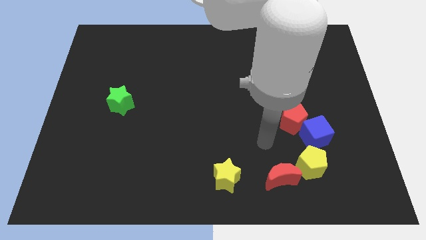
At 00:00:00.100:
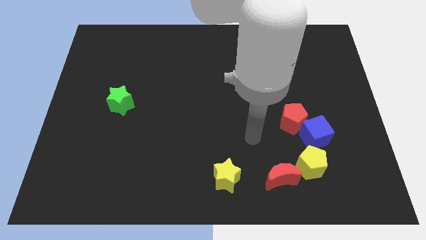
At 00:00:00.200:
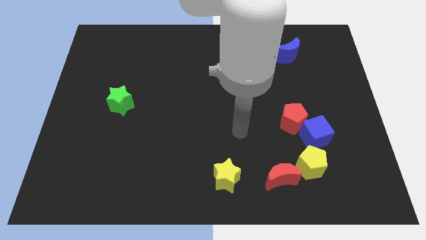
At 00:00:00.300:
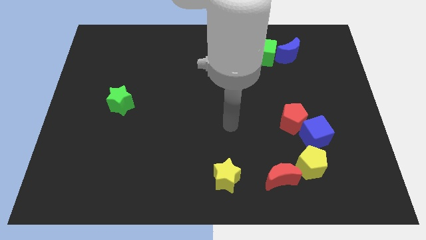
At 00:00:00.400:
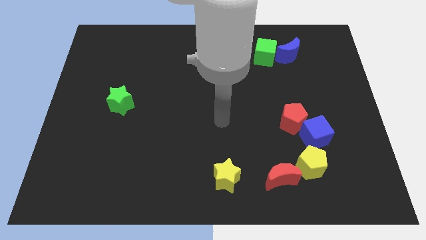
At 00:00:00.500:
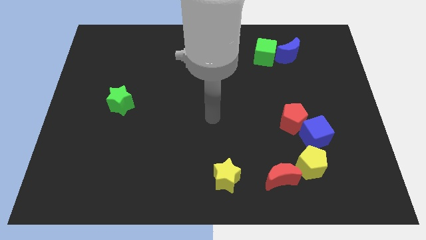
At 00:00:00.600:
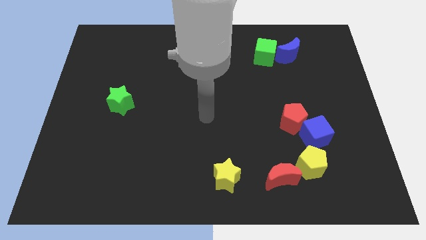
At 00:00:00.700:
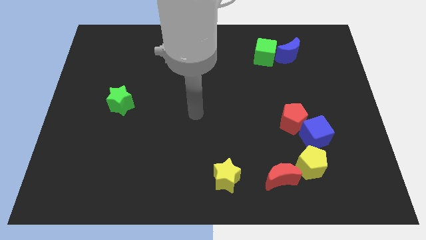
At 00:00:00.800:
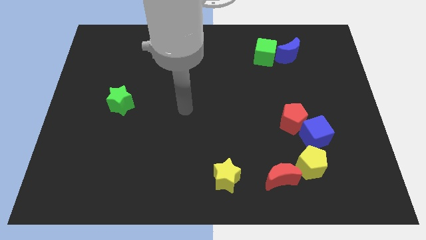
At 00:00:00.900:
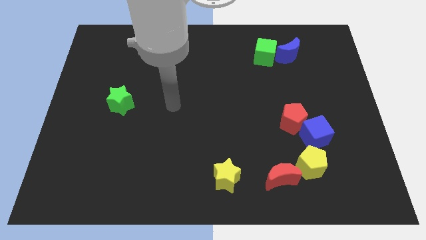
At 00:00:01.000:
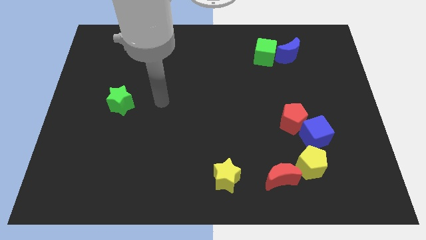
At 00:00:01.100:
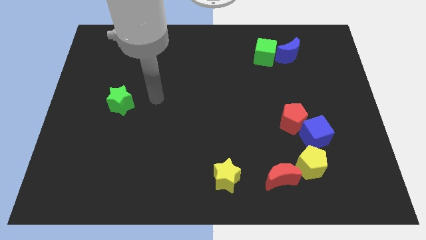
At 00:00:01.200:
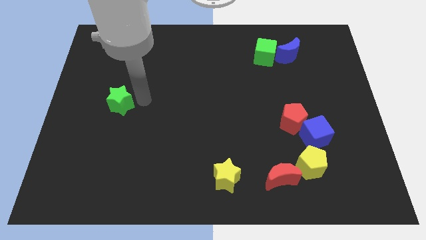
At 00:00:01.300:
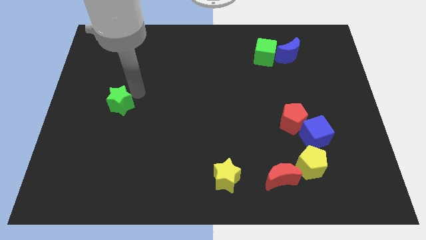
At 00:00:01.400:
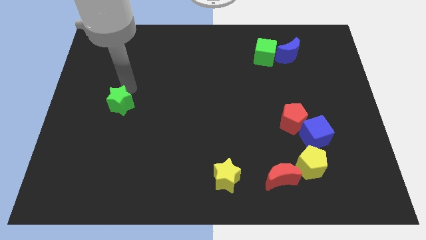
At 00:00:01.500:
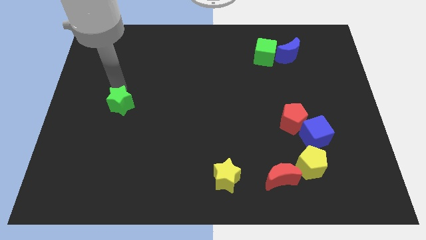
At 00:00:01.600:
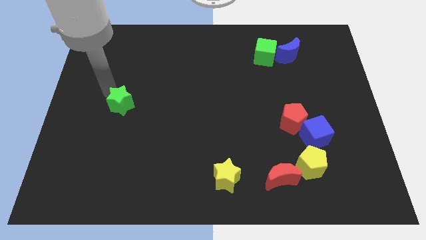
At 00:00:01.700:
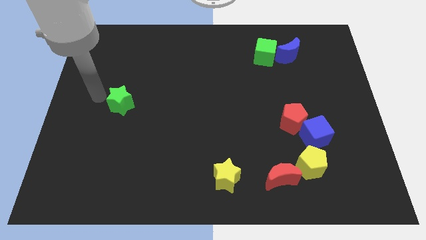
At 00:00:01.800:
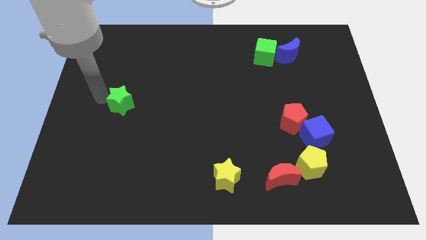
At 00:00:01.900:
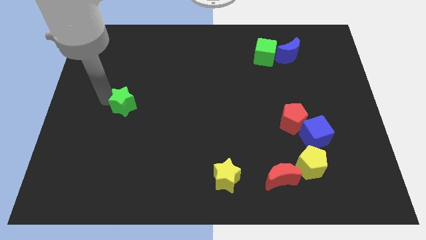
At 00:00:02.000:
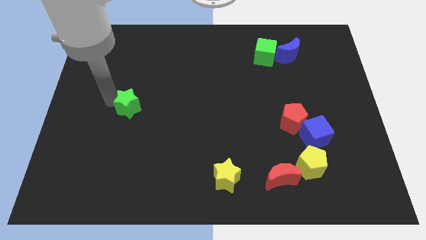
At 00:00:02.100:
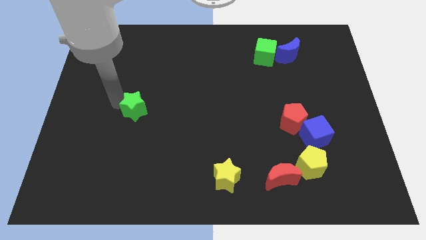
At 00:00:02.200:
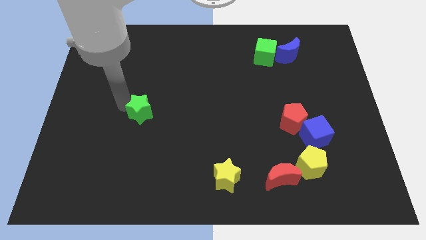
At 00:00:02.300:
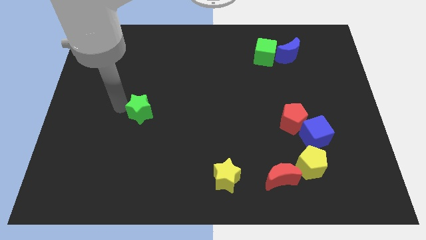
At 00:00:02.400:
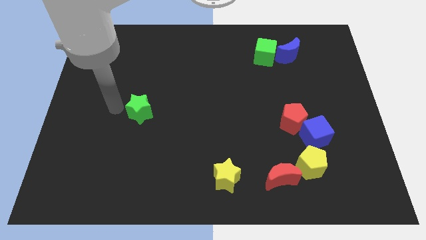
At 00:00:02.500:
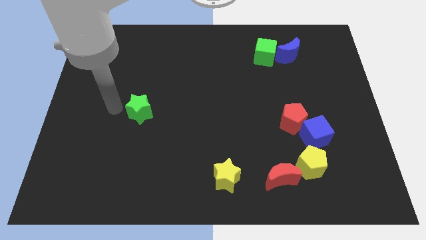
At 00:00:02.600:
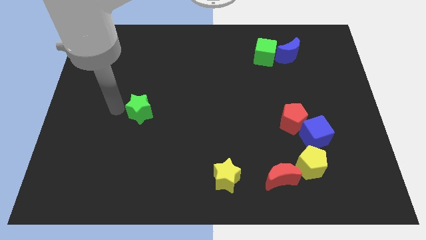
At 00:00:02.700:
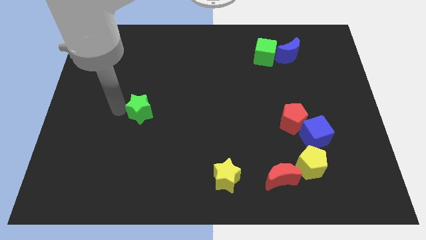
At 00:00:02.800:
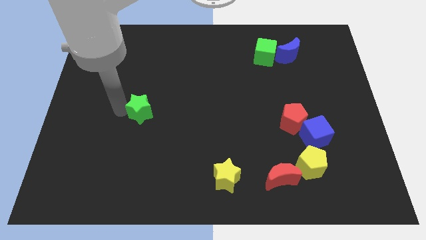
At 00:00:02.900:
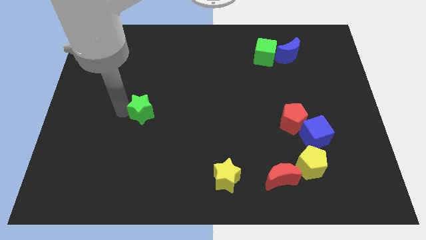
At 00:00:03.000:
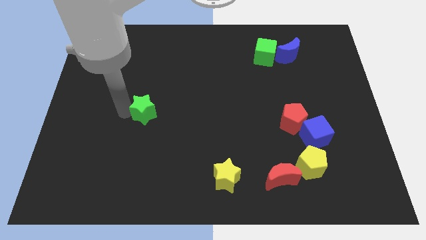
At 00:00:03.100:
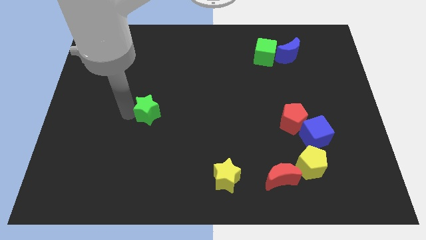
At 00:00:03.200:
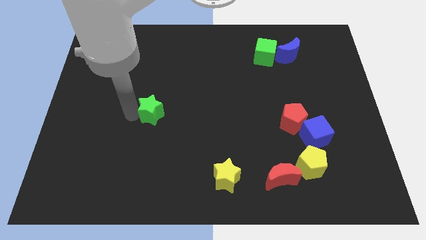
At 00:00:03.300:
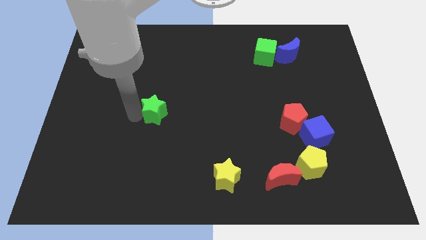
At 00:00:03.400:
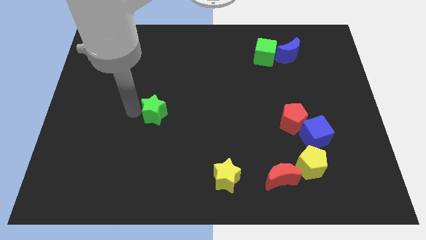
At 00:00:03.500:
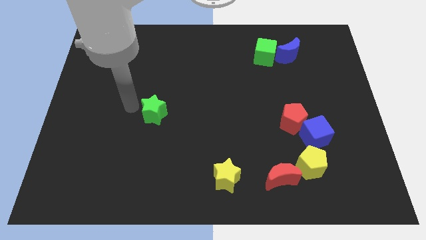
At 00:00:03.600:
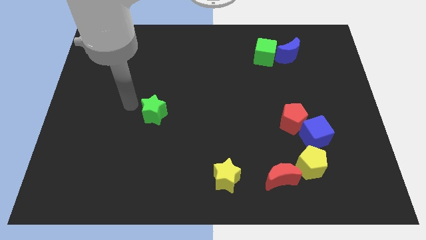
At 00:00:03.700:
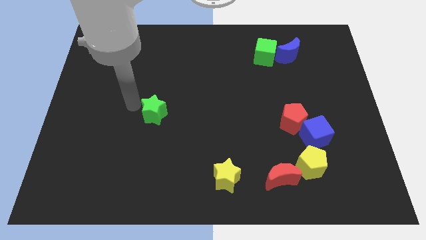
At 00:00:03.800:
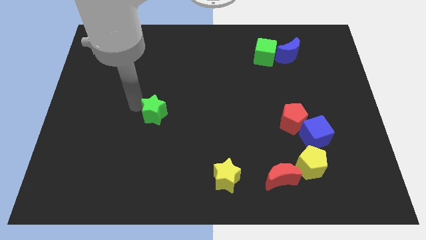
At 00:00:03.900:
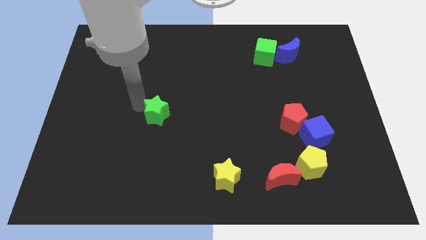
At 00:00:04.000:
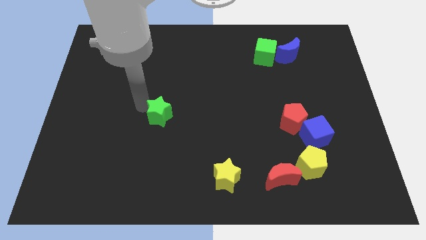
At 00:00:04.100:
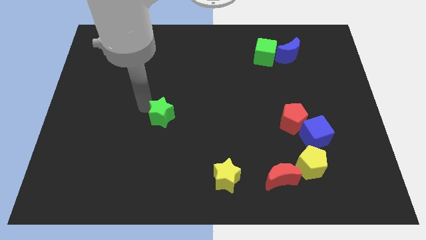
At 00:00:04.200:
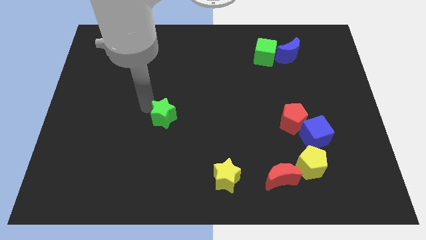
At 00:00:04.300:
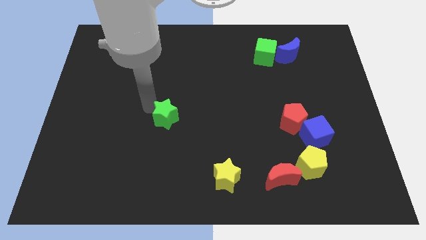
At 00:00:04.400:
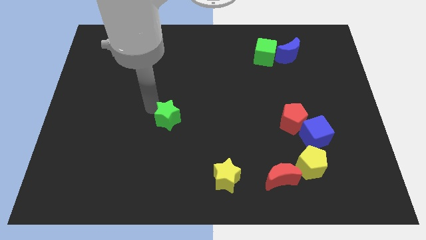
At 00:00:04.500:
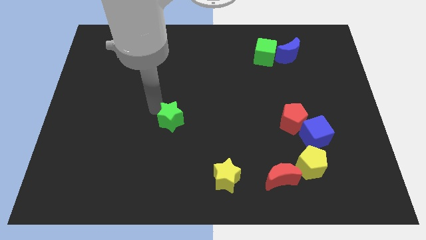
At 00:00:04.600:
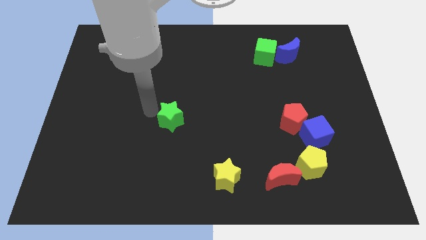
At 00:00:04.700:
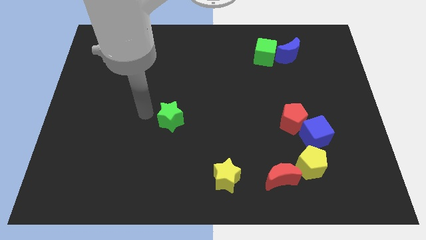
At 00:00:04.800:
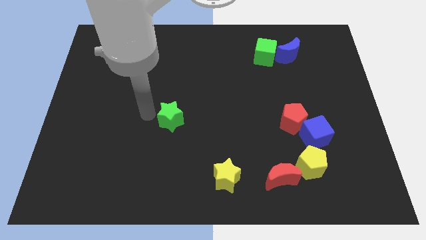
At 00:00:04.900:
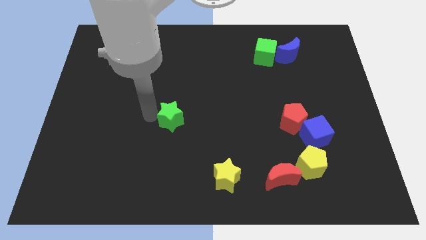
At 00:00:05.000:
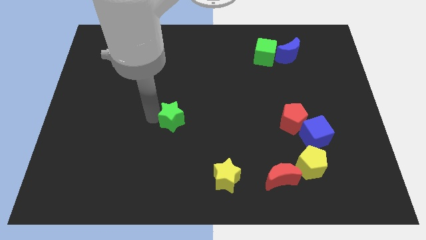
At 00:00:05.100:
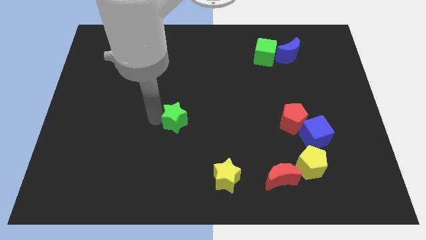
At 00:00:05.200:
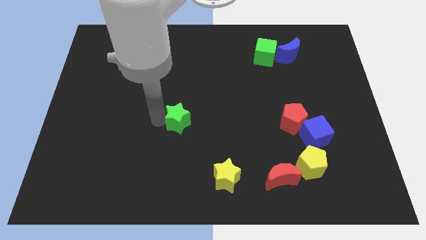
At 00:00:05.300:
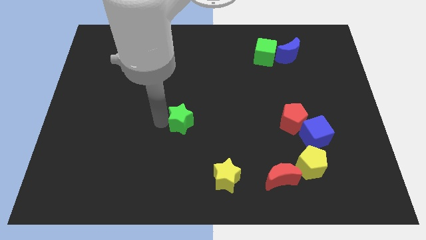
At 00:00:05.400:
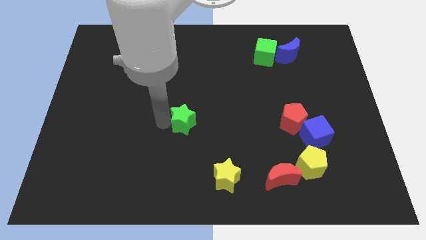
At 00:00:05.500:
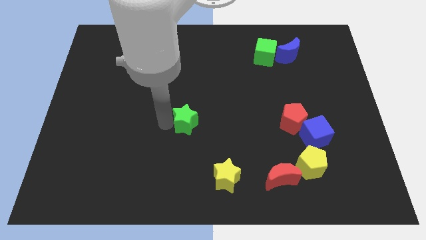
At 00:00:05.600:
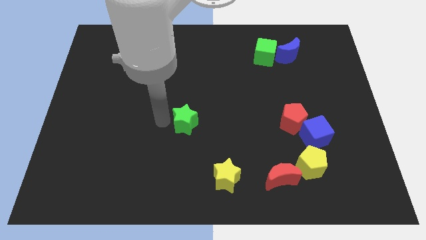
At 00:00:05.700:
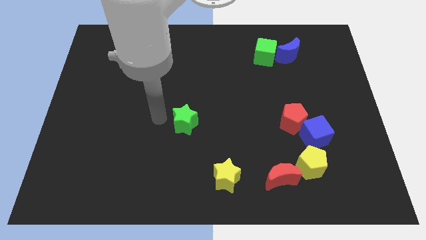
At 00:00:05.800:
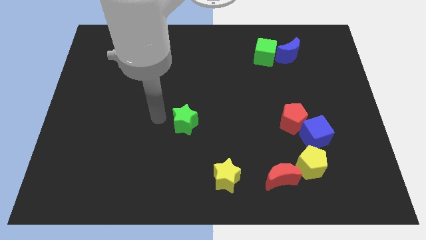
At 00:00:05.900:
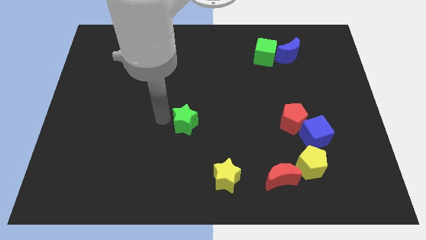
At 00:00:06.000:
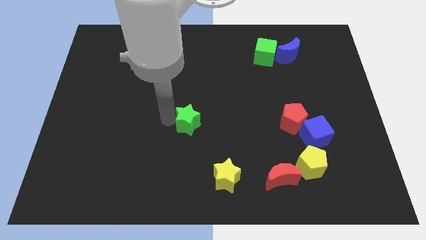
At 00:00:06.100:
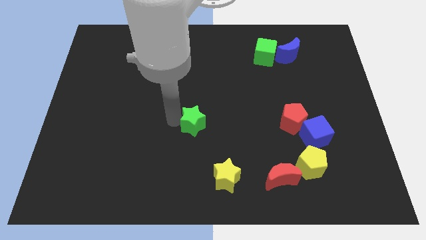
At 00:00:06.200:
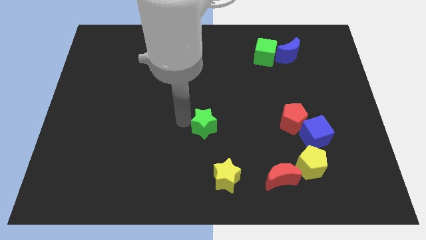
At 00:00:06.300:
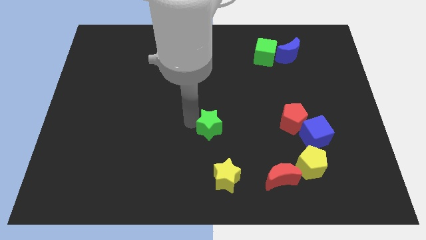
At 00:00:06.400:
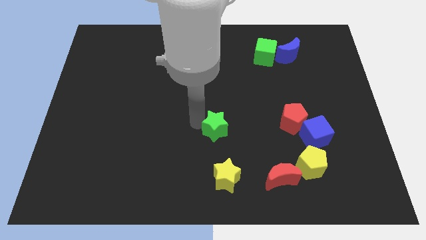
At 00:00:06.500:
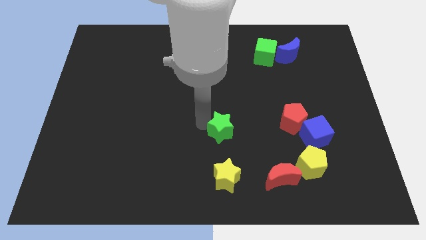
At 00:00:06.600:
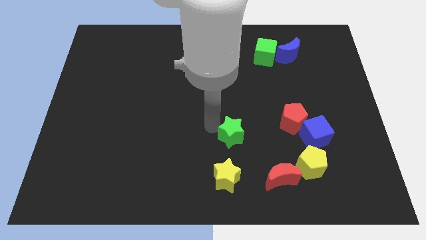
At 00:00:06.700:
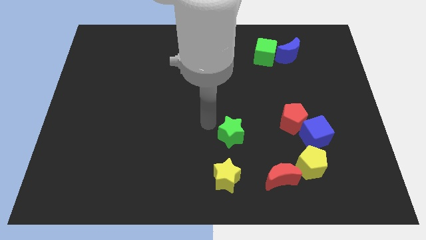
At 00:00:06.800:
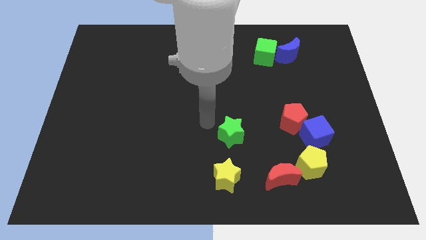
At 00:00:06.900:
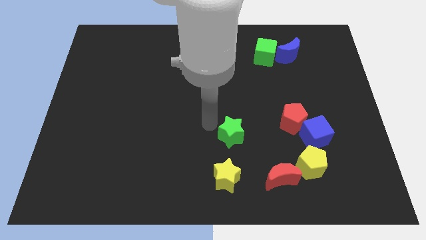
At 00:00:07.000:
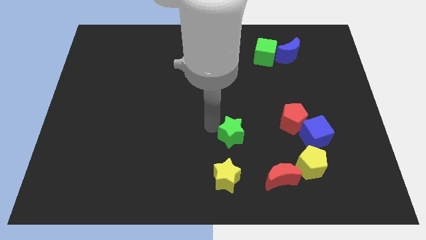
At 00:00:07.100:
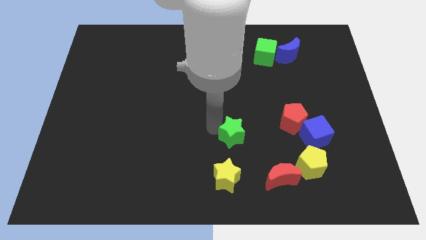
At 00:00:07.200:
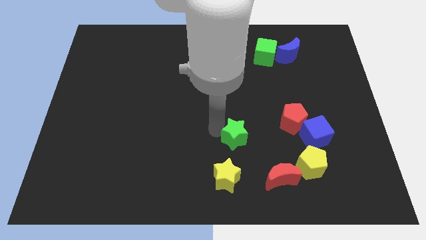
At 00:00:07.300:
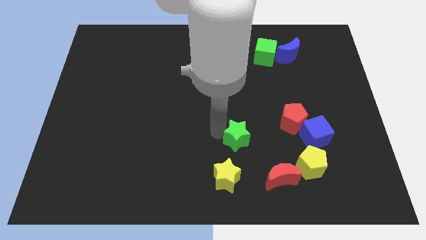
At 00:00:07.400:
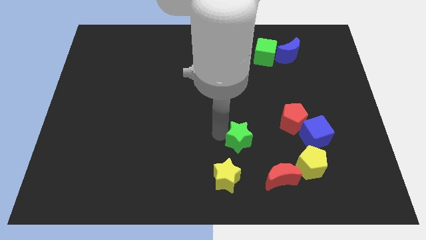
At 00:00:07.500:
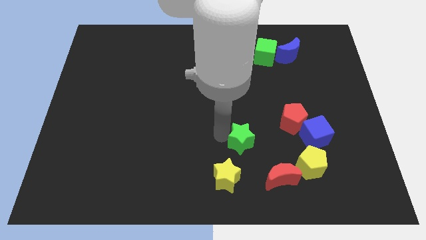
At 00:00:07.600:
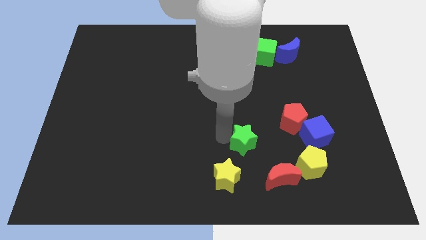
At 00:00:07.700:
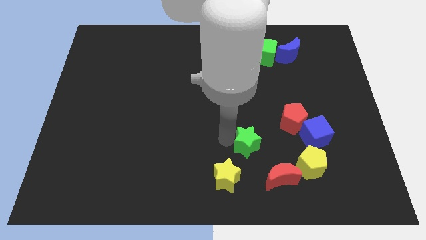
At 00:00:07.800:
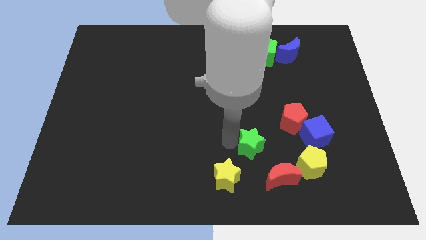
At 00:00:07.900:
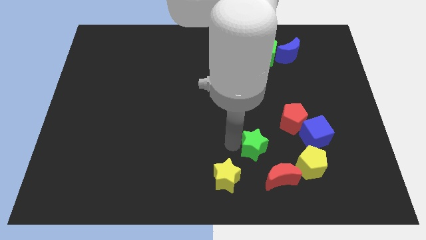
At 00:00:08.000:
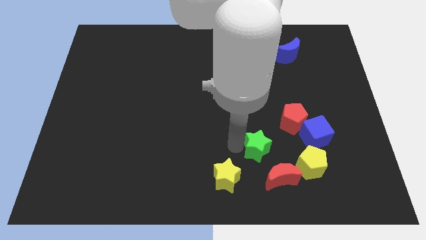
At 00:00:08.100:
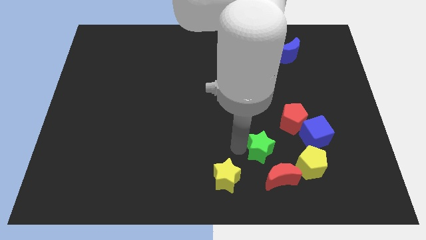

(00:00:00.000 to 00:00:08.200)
push the green star to the top left side of the yellow pentagon
